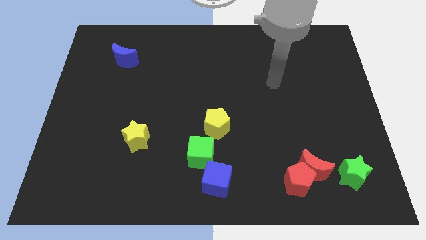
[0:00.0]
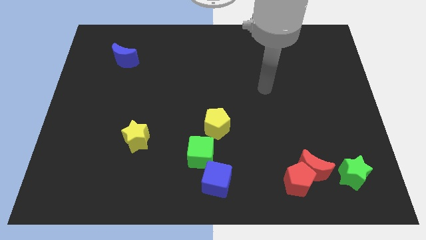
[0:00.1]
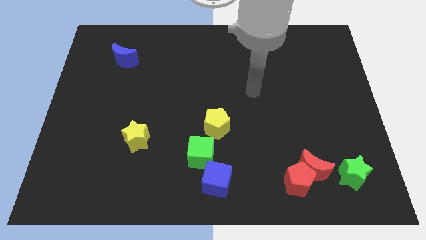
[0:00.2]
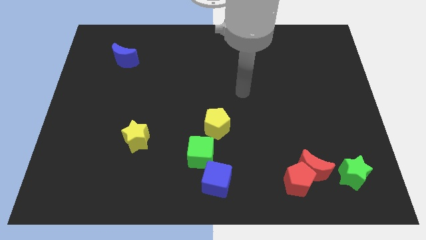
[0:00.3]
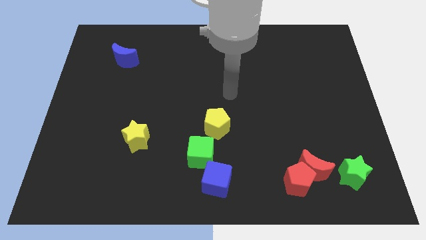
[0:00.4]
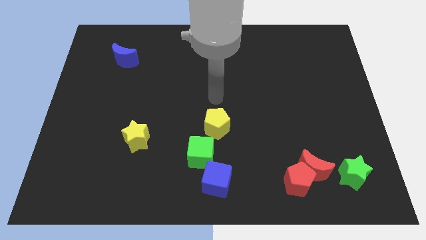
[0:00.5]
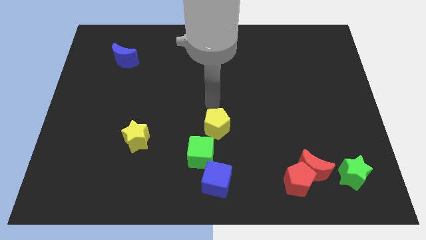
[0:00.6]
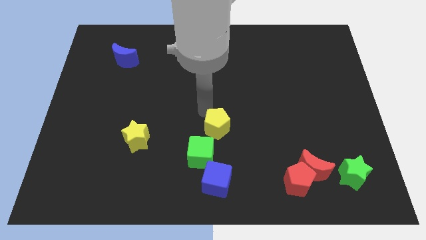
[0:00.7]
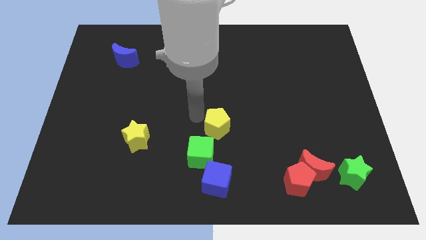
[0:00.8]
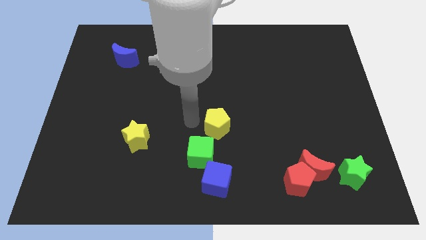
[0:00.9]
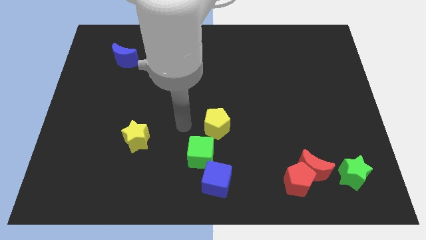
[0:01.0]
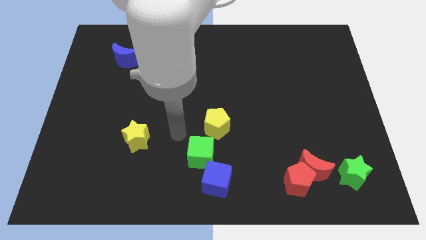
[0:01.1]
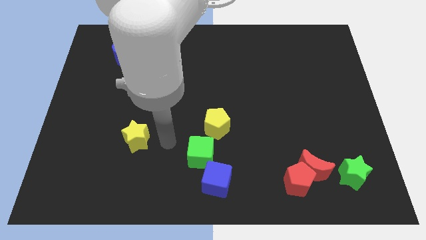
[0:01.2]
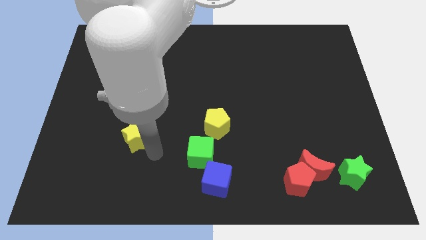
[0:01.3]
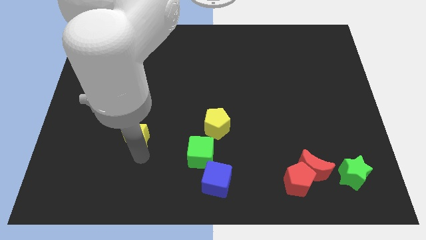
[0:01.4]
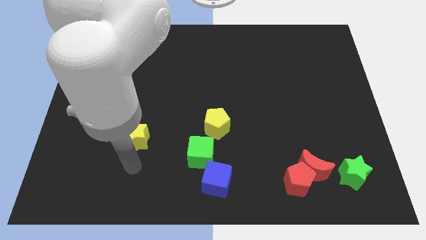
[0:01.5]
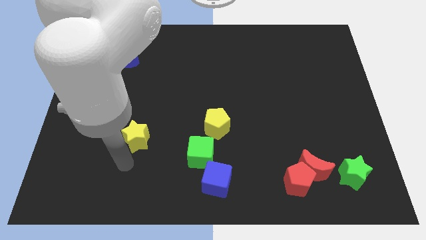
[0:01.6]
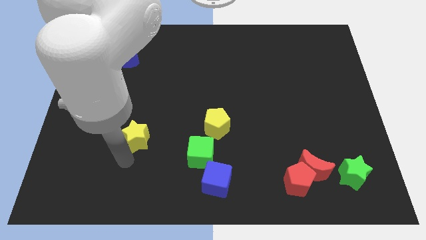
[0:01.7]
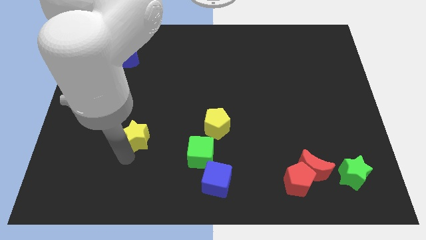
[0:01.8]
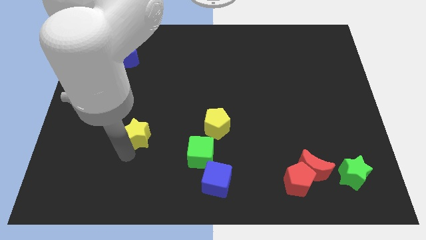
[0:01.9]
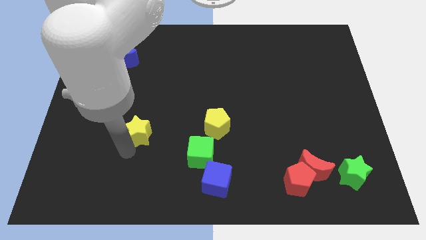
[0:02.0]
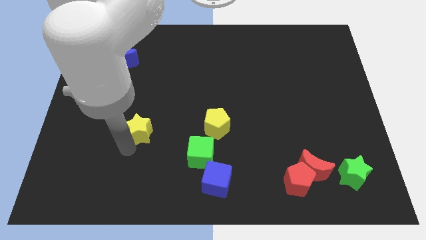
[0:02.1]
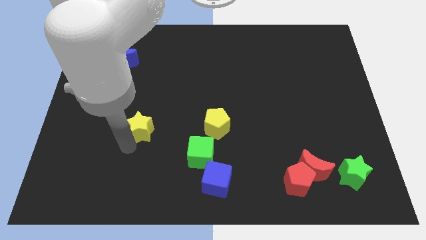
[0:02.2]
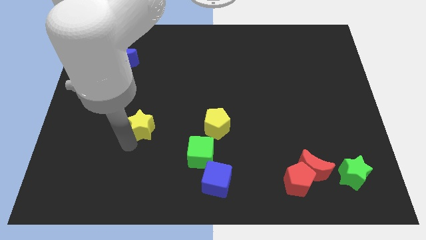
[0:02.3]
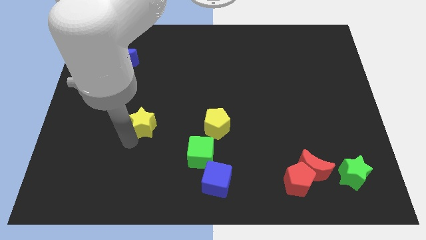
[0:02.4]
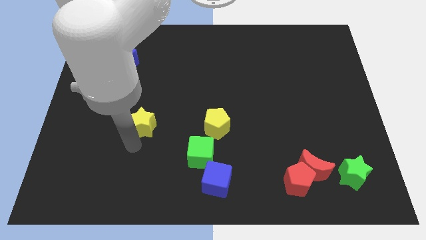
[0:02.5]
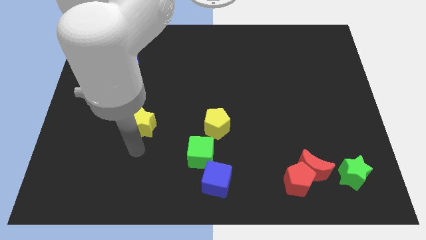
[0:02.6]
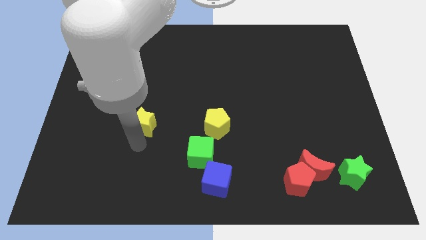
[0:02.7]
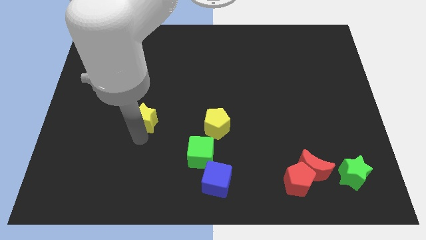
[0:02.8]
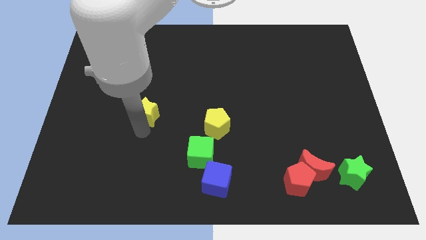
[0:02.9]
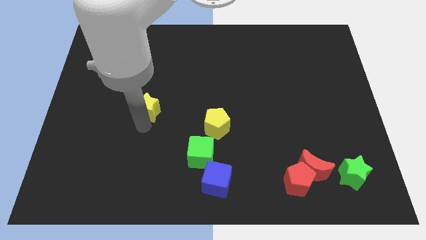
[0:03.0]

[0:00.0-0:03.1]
move the yellow star up slightly

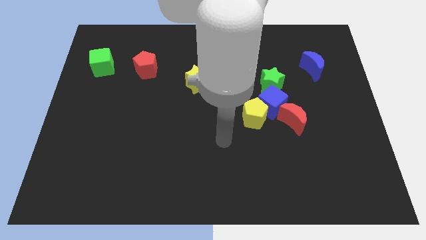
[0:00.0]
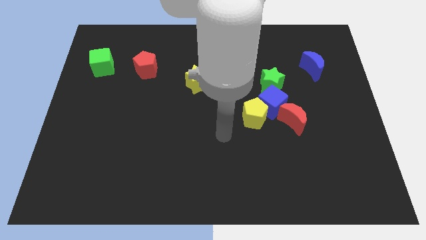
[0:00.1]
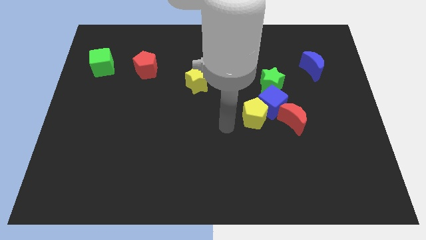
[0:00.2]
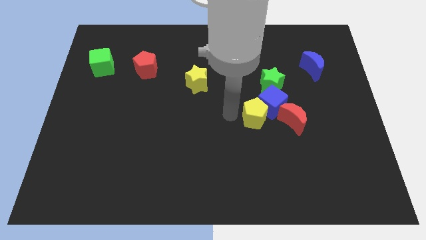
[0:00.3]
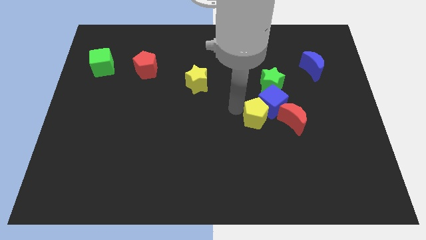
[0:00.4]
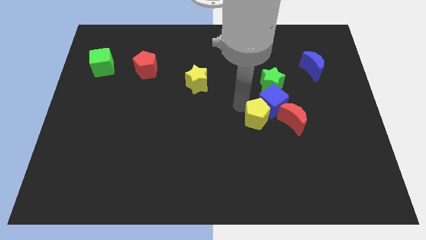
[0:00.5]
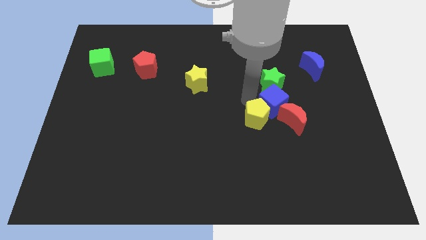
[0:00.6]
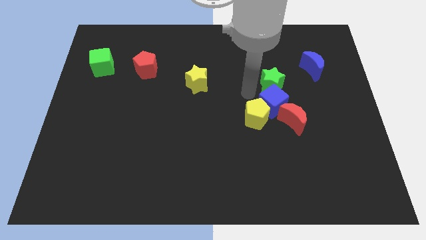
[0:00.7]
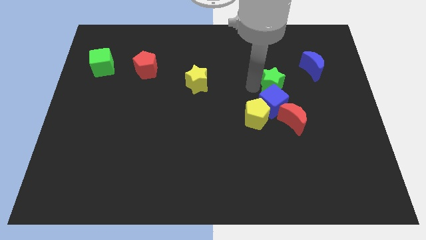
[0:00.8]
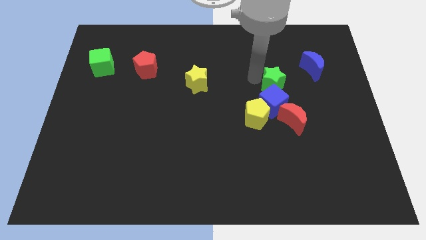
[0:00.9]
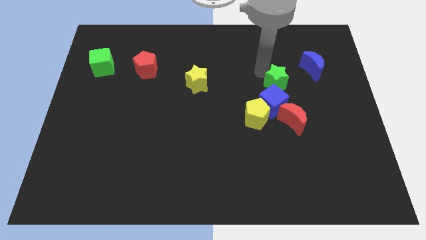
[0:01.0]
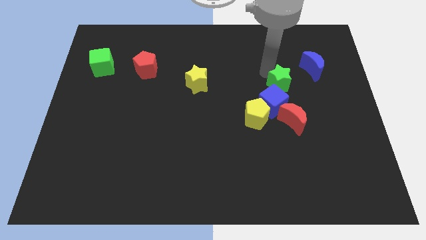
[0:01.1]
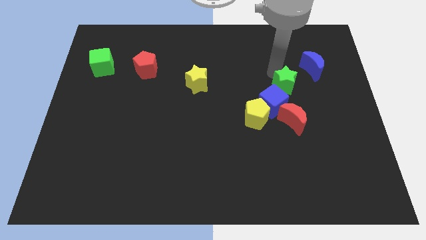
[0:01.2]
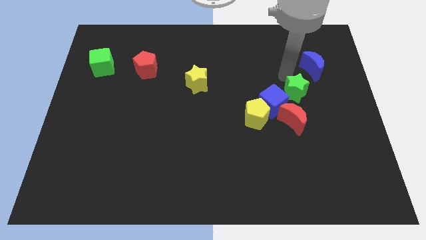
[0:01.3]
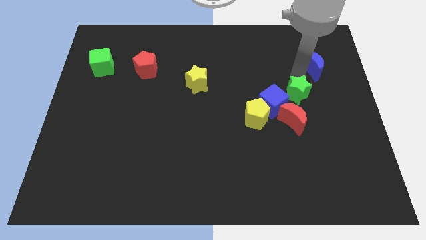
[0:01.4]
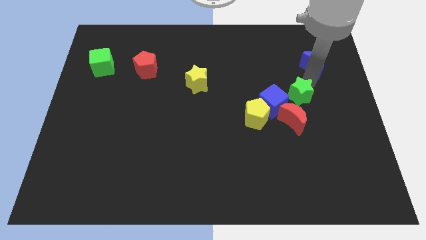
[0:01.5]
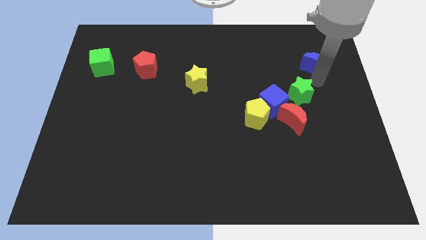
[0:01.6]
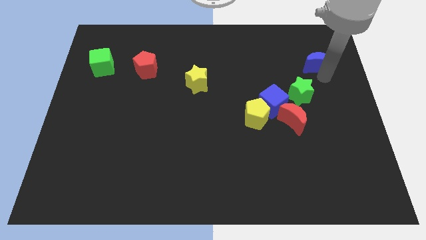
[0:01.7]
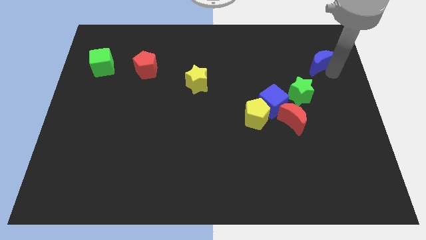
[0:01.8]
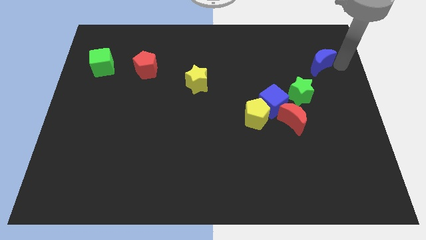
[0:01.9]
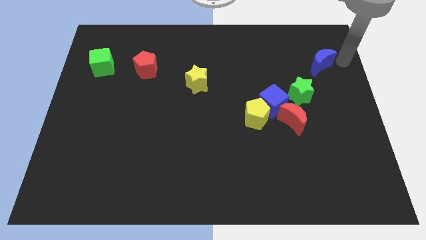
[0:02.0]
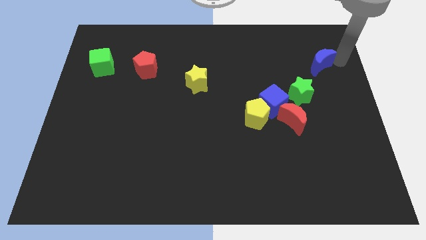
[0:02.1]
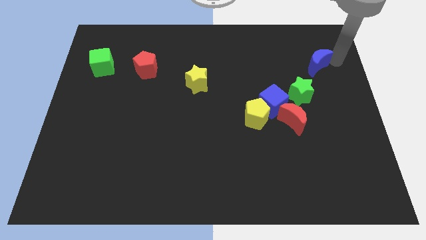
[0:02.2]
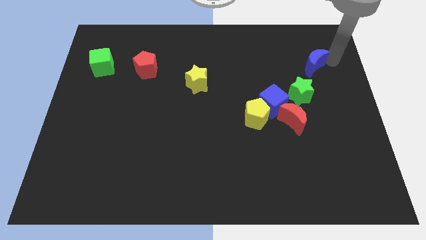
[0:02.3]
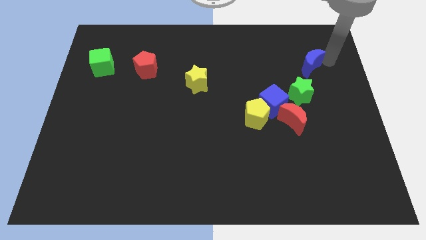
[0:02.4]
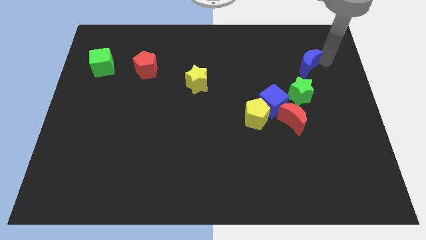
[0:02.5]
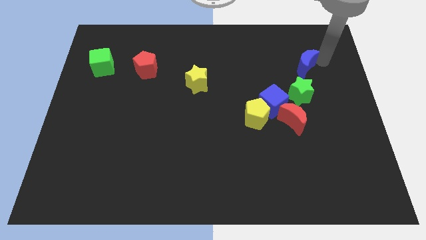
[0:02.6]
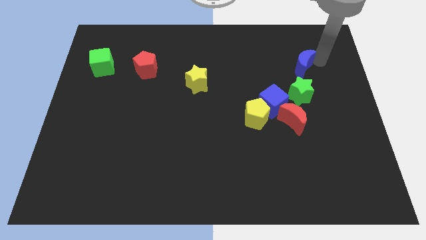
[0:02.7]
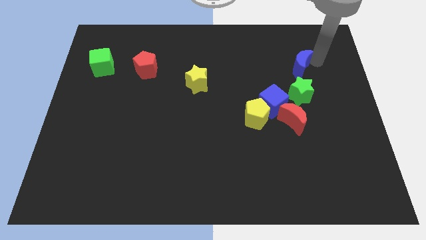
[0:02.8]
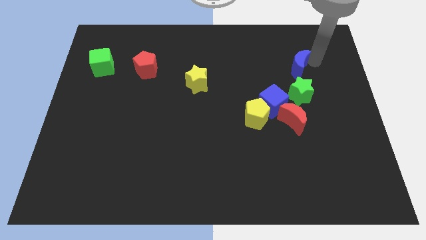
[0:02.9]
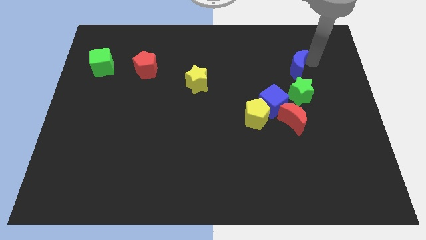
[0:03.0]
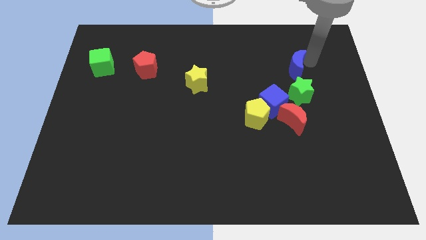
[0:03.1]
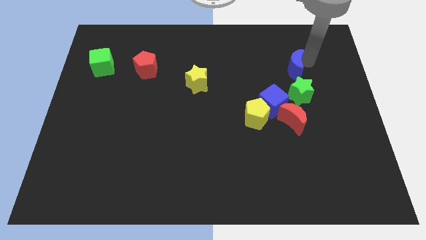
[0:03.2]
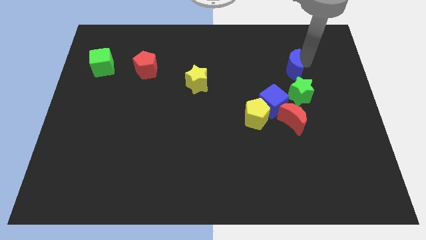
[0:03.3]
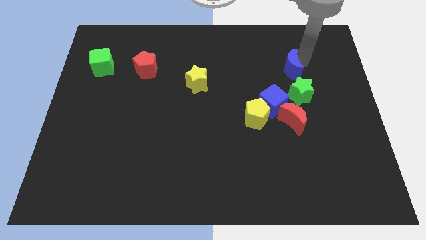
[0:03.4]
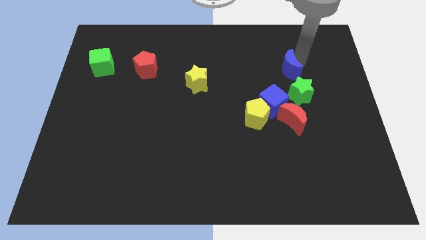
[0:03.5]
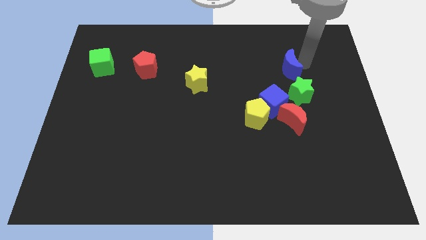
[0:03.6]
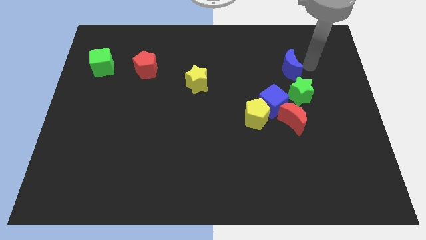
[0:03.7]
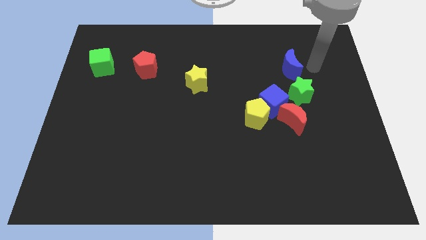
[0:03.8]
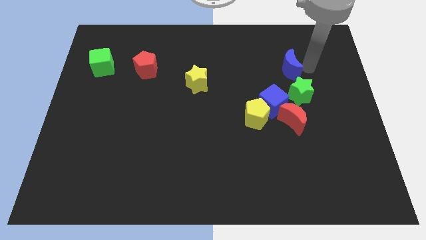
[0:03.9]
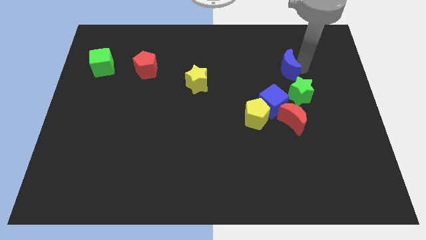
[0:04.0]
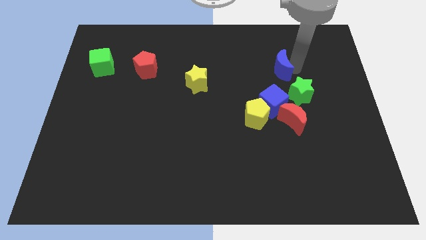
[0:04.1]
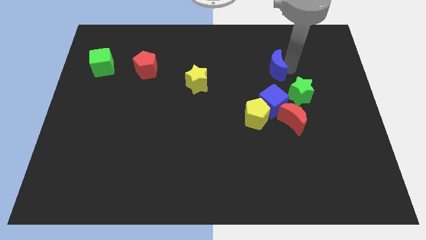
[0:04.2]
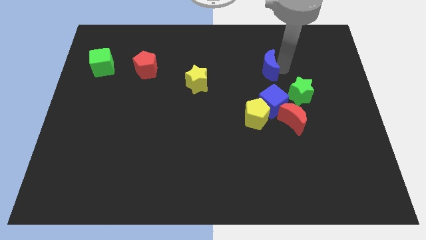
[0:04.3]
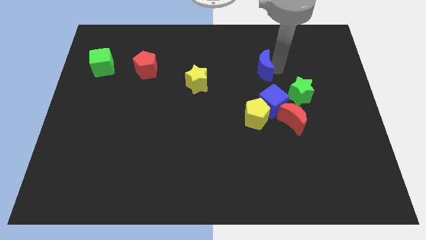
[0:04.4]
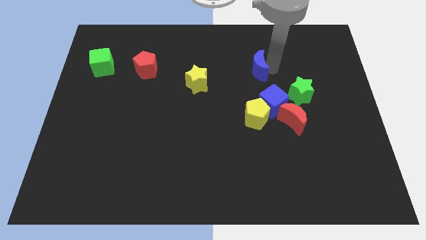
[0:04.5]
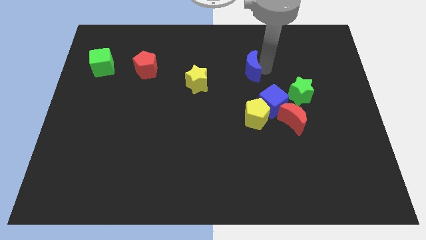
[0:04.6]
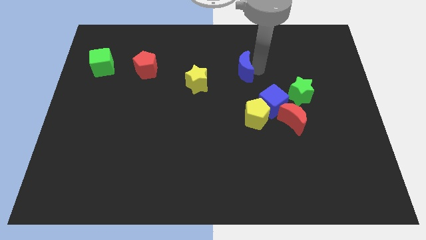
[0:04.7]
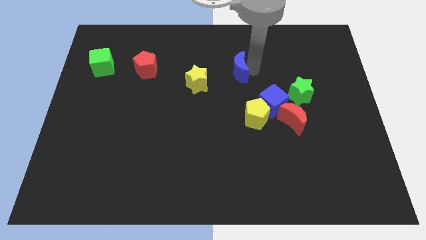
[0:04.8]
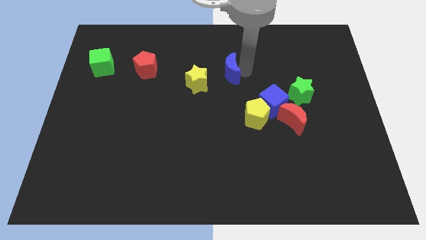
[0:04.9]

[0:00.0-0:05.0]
move the blue moon to the left

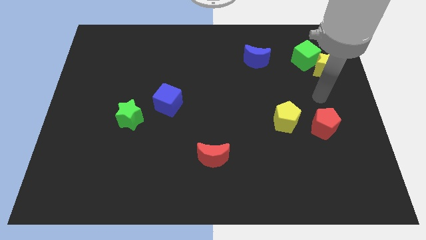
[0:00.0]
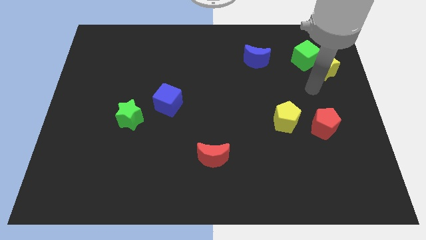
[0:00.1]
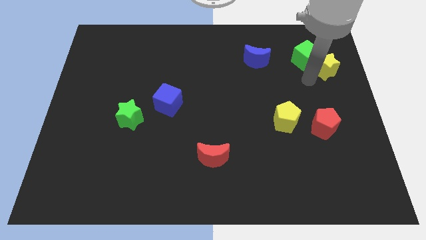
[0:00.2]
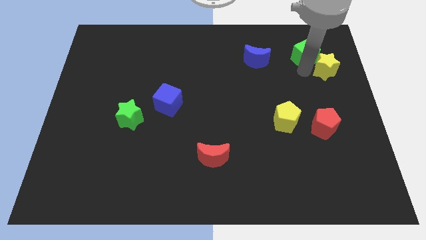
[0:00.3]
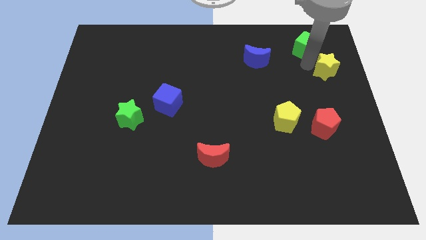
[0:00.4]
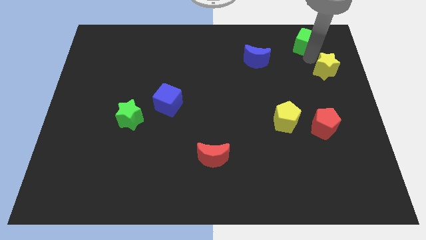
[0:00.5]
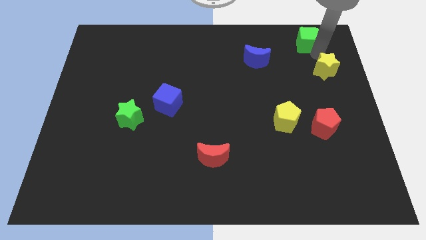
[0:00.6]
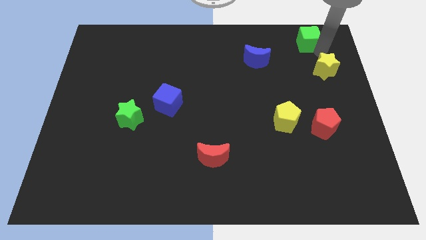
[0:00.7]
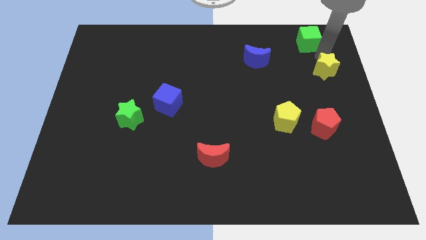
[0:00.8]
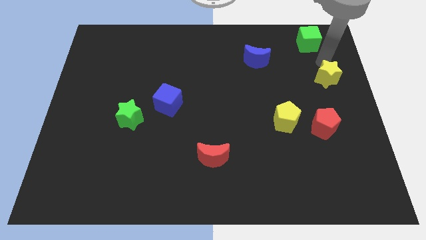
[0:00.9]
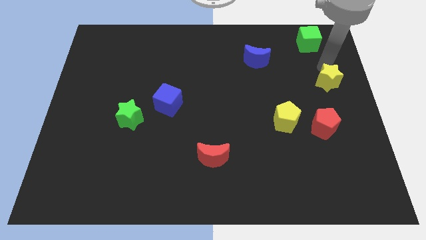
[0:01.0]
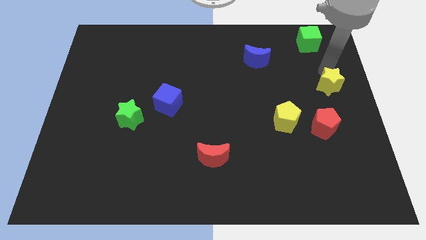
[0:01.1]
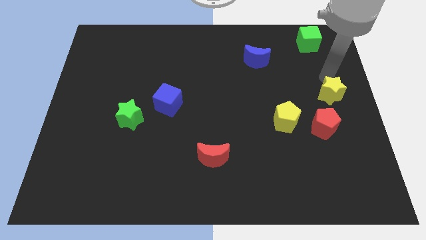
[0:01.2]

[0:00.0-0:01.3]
move the yellow star a little bit down
